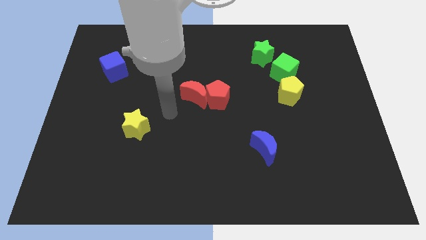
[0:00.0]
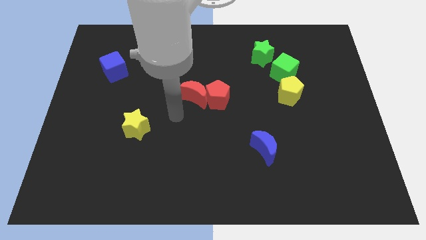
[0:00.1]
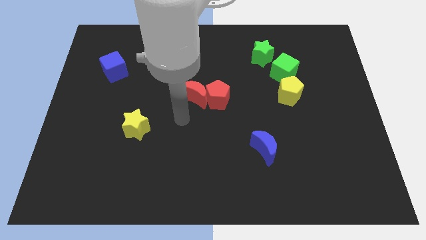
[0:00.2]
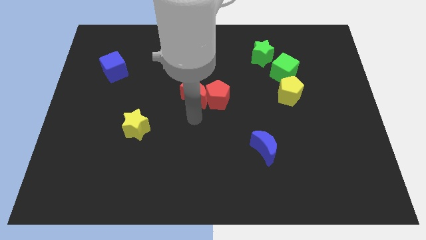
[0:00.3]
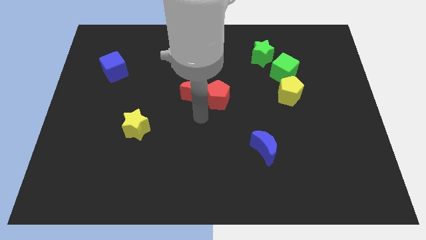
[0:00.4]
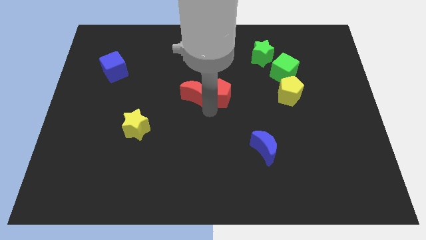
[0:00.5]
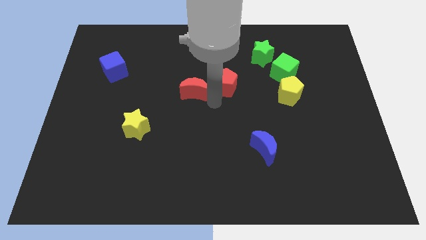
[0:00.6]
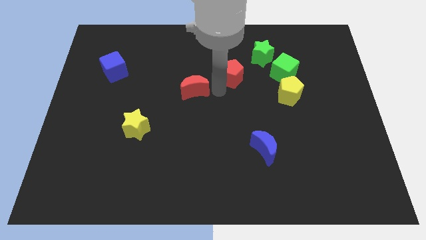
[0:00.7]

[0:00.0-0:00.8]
pull the red moon apart from the red pentagon

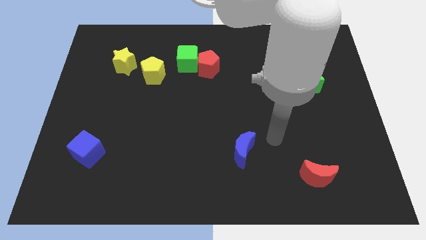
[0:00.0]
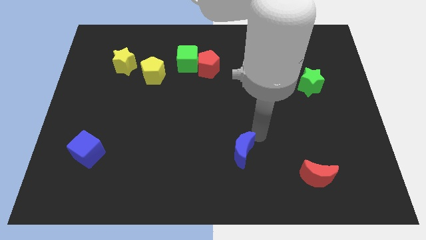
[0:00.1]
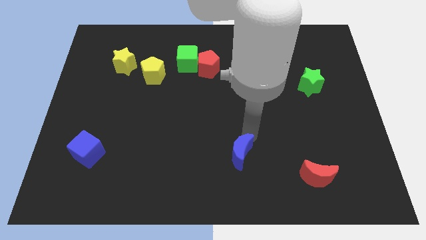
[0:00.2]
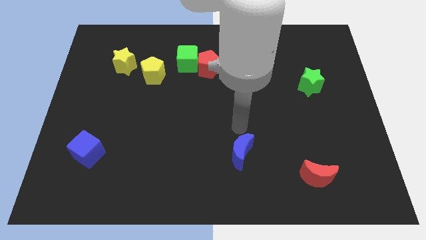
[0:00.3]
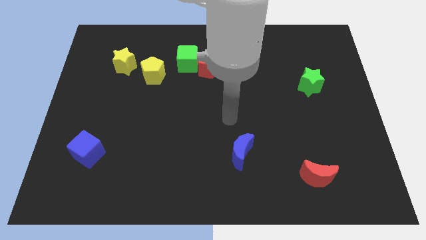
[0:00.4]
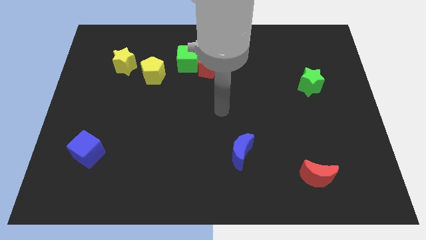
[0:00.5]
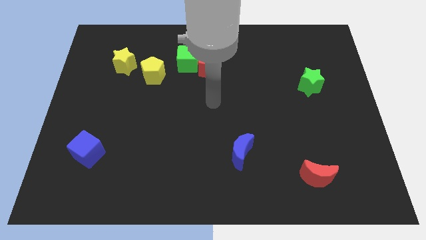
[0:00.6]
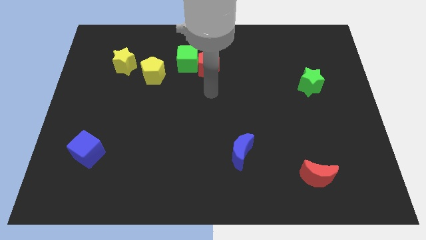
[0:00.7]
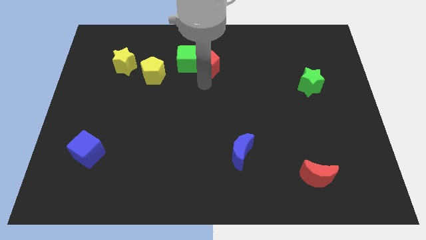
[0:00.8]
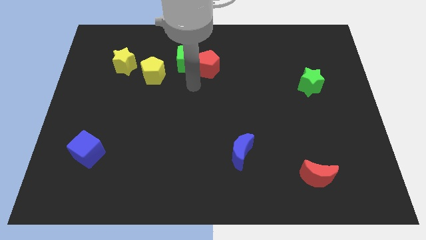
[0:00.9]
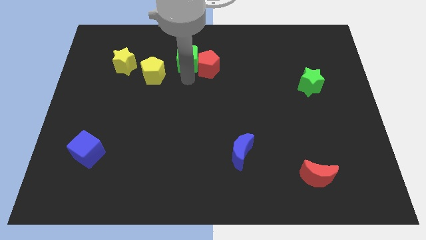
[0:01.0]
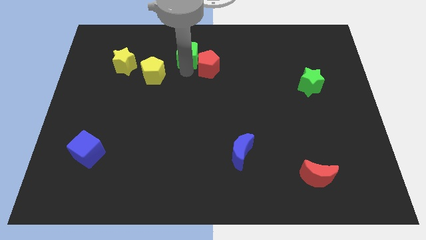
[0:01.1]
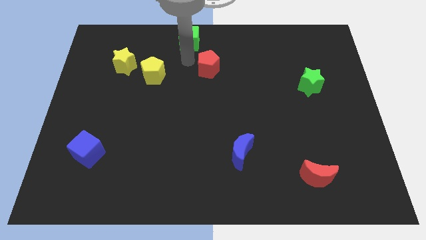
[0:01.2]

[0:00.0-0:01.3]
move the red pentagon away from the green cube

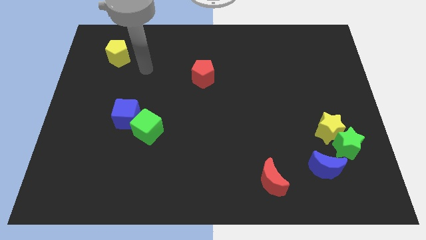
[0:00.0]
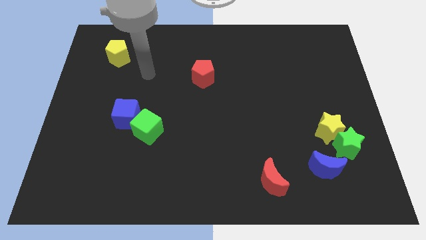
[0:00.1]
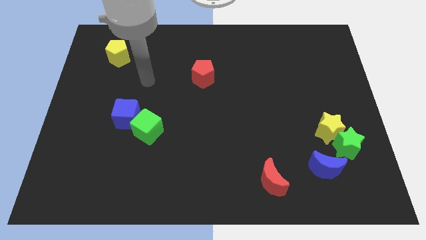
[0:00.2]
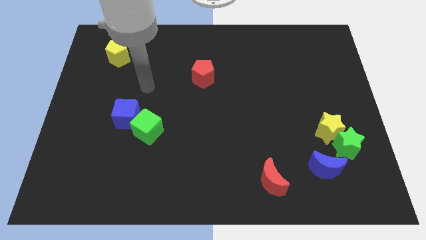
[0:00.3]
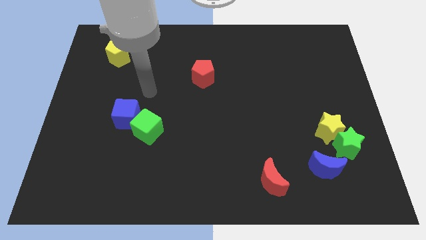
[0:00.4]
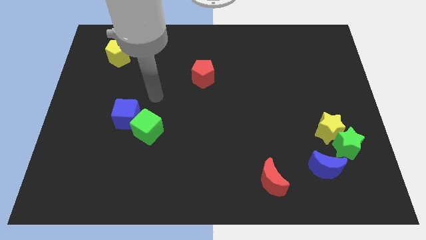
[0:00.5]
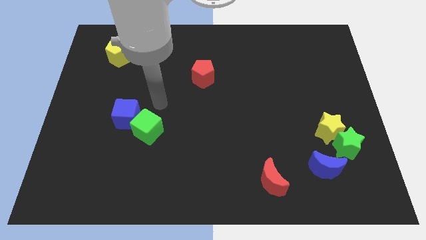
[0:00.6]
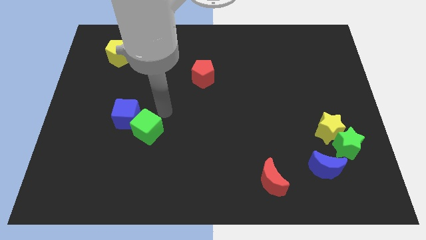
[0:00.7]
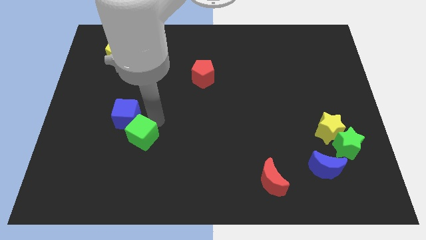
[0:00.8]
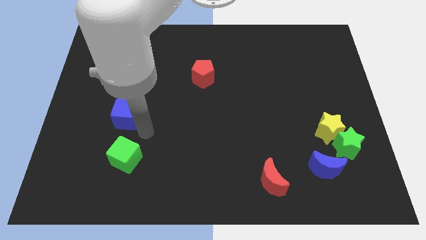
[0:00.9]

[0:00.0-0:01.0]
pull the blue cube apart from the green cube

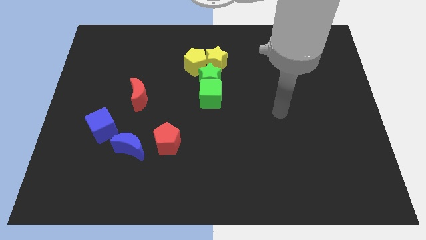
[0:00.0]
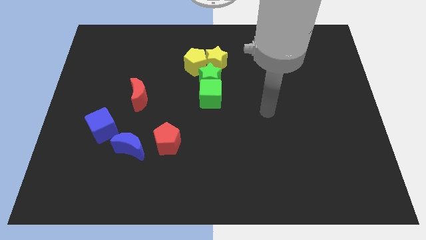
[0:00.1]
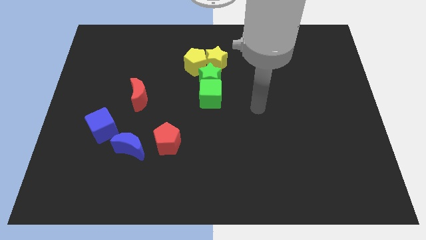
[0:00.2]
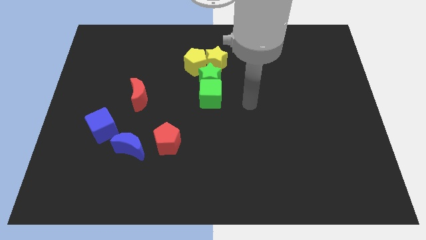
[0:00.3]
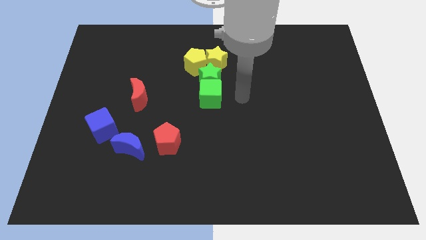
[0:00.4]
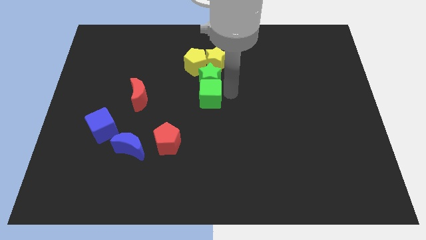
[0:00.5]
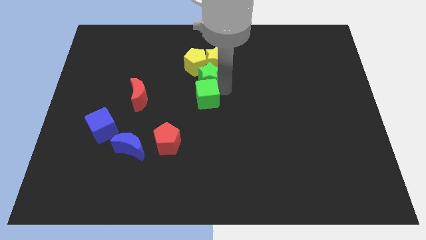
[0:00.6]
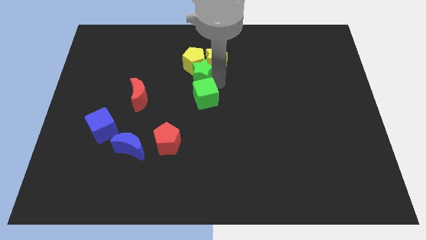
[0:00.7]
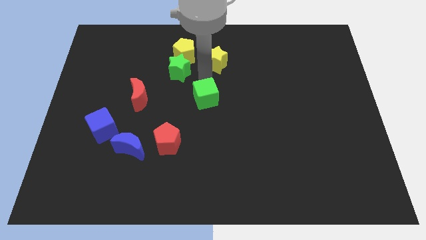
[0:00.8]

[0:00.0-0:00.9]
separate the green cube from the green star

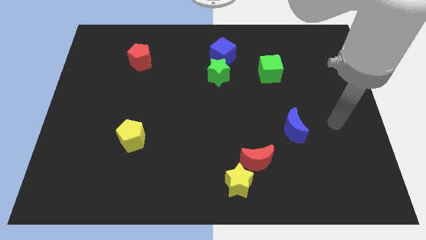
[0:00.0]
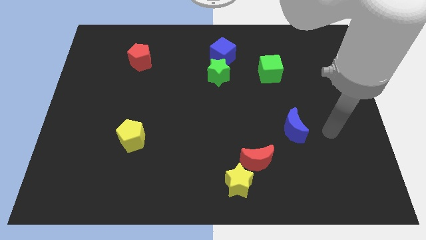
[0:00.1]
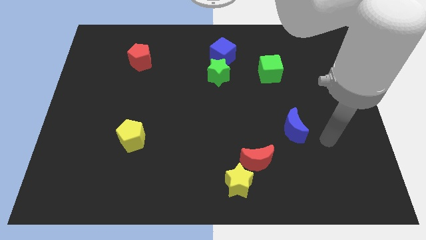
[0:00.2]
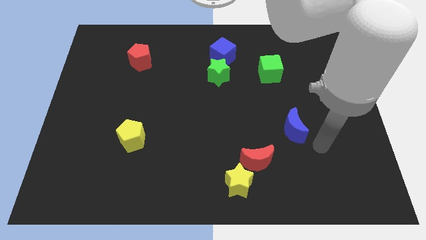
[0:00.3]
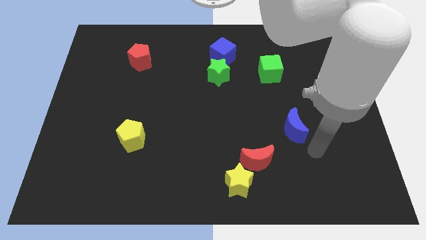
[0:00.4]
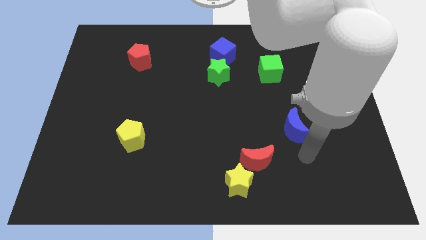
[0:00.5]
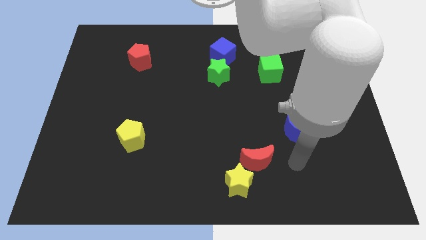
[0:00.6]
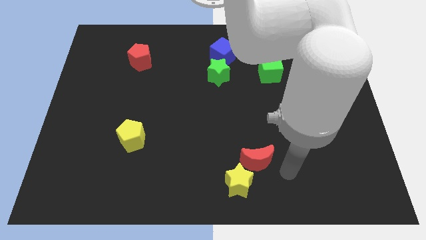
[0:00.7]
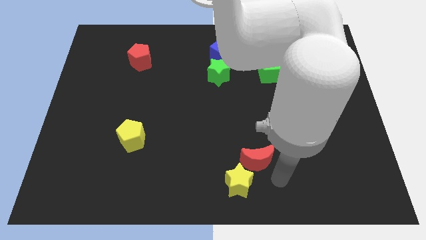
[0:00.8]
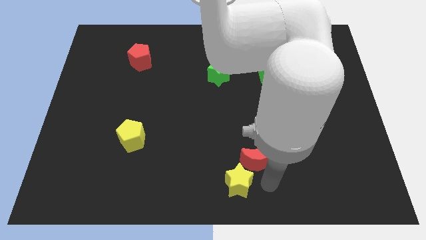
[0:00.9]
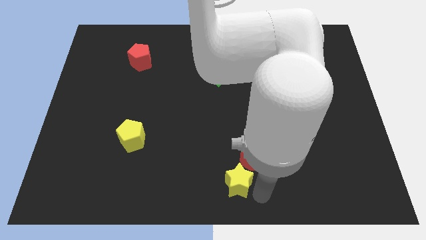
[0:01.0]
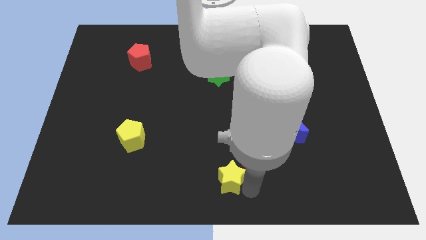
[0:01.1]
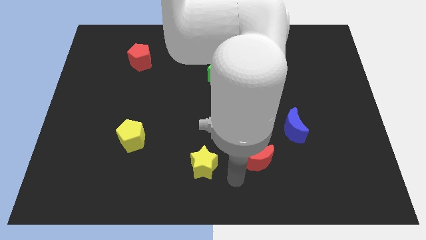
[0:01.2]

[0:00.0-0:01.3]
pull the red moon apart from the yellow star

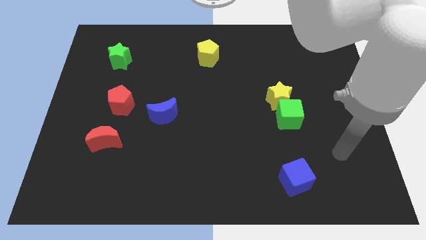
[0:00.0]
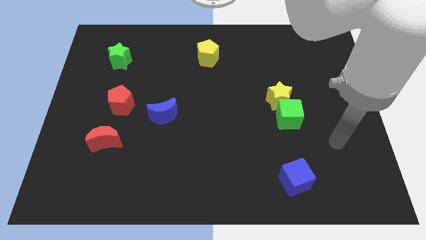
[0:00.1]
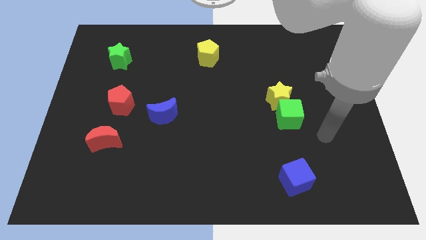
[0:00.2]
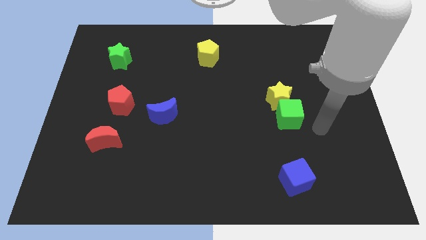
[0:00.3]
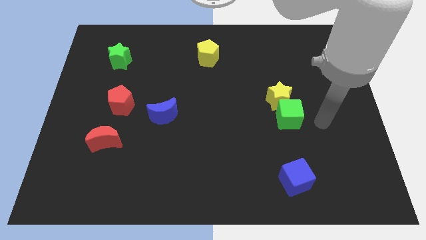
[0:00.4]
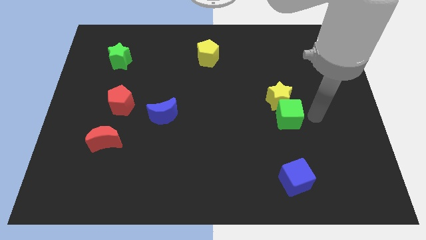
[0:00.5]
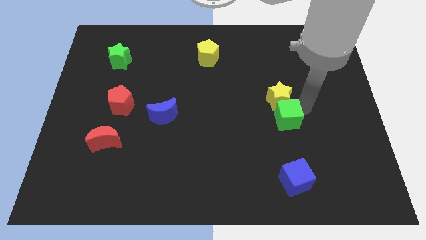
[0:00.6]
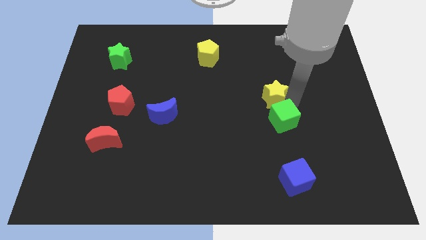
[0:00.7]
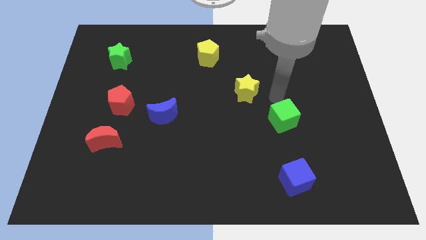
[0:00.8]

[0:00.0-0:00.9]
separate the green cube from the yellow star

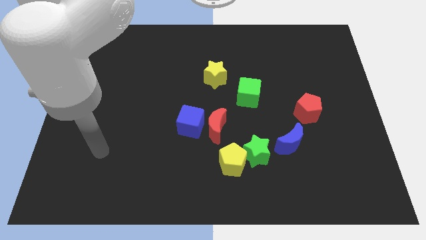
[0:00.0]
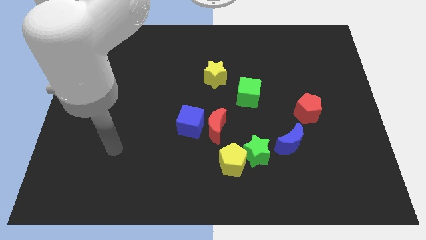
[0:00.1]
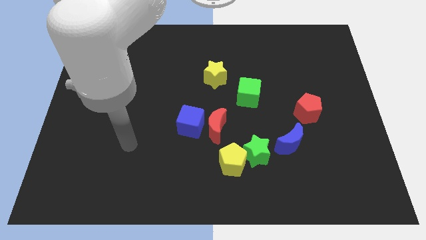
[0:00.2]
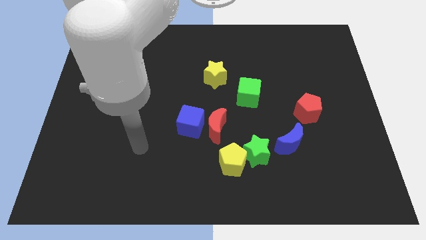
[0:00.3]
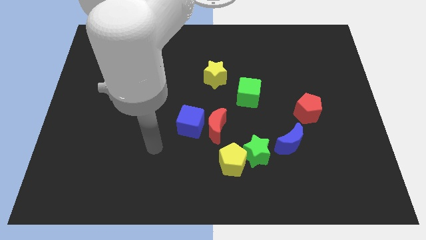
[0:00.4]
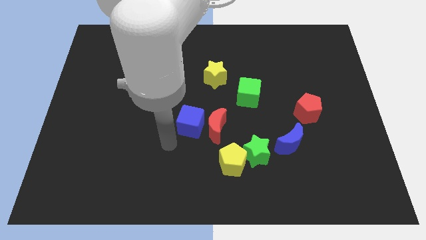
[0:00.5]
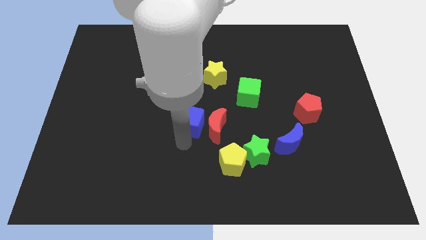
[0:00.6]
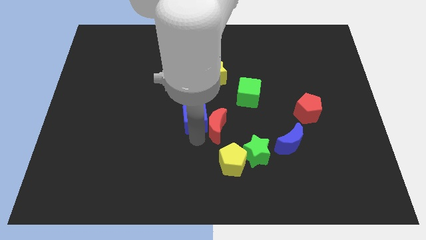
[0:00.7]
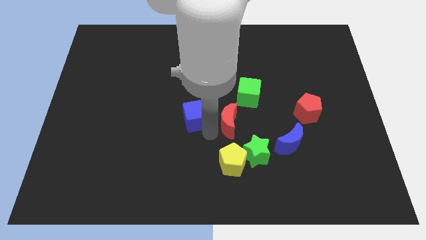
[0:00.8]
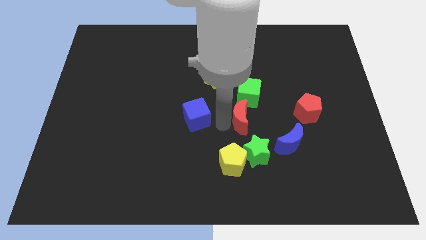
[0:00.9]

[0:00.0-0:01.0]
move the blue cube away from the red moon

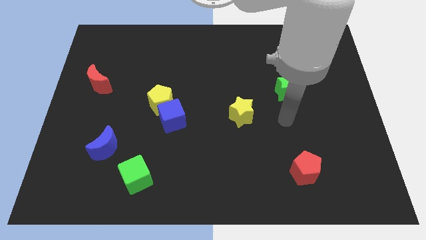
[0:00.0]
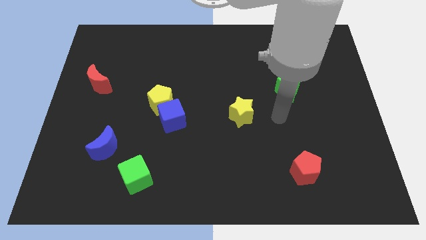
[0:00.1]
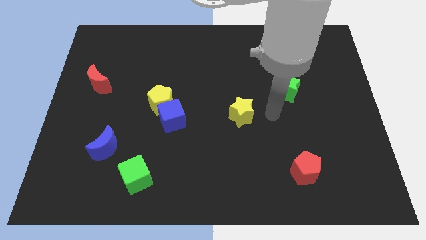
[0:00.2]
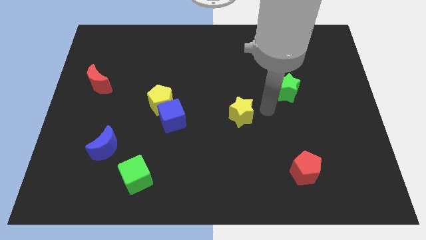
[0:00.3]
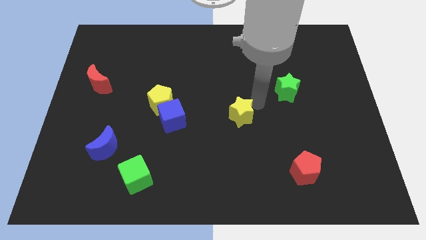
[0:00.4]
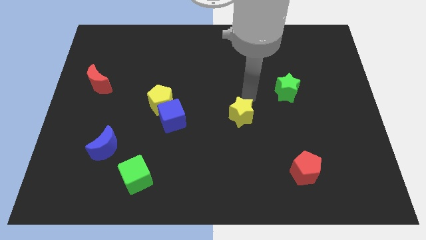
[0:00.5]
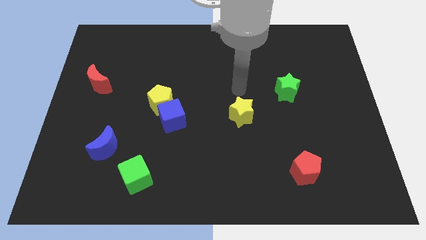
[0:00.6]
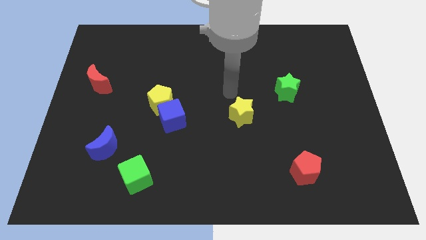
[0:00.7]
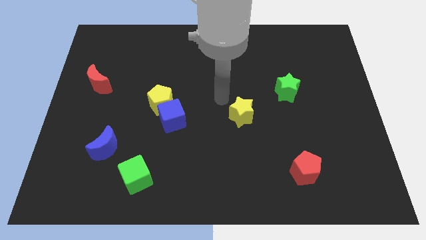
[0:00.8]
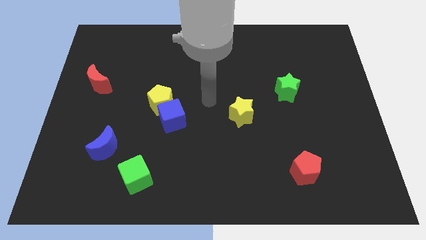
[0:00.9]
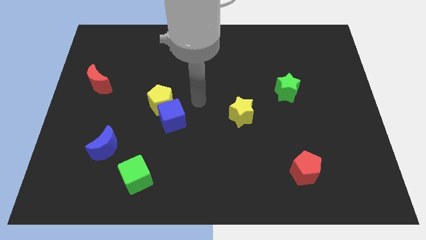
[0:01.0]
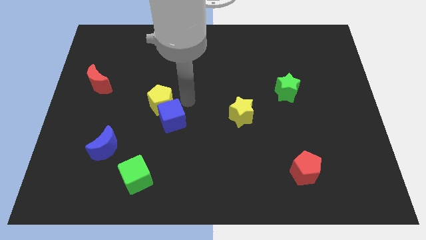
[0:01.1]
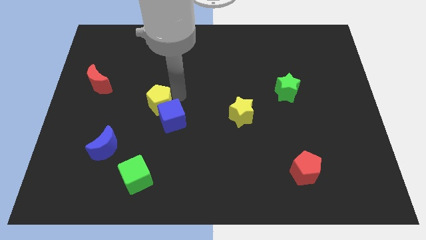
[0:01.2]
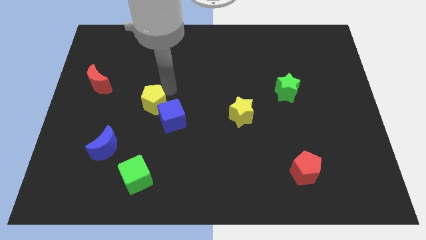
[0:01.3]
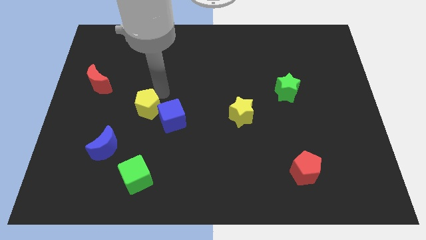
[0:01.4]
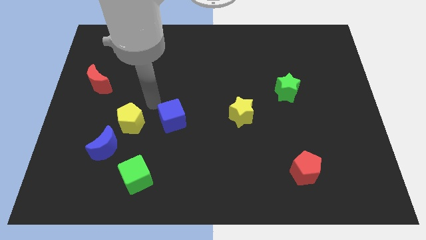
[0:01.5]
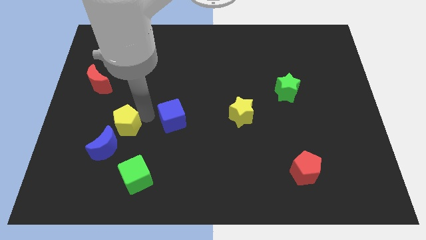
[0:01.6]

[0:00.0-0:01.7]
separate the blue cube from the yellow pentagon

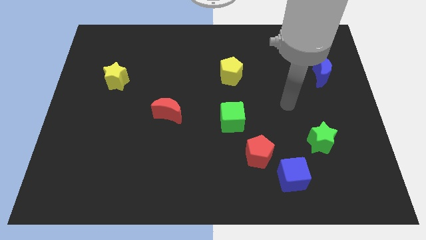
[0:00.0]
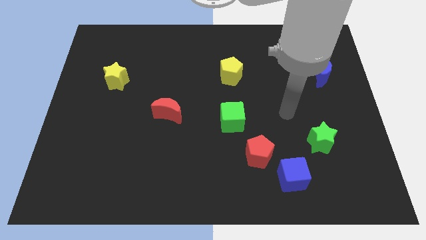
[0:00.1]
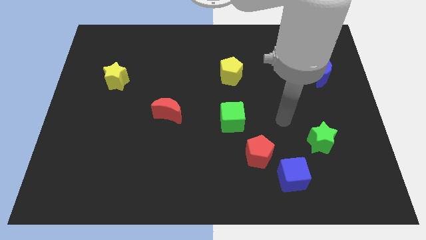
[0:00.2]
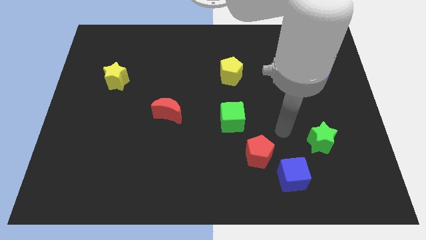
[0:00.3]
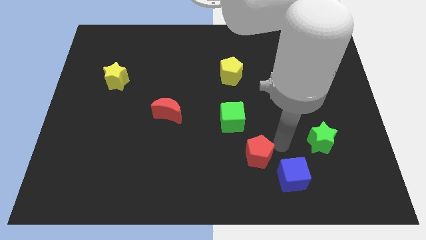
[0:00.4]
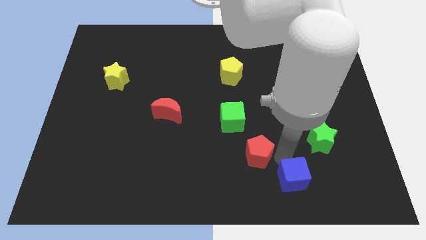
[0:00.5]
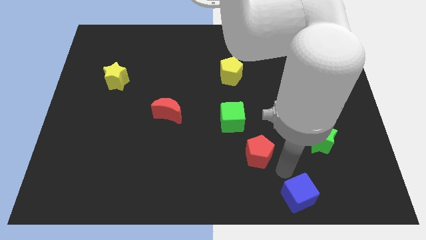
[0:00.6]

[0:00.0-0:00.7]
move the red pentagon away from the blue cube
